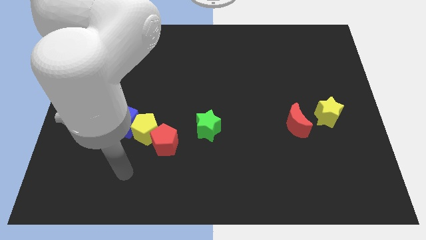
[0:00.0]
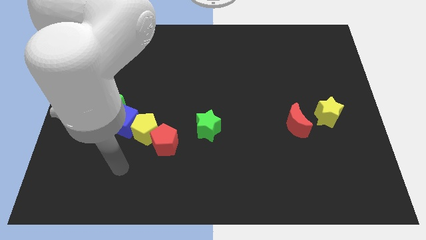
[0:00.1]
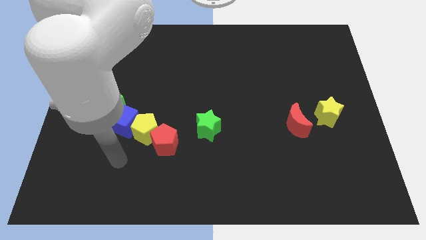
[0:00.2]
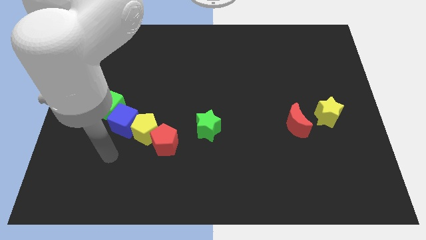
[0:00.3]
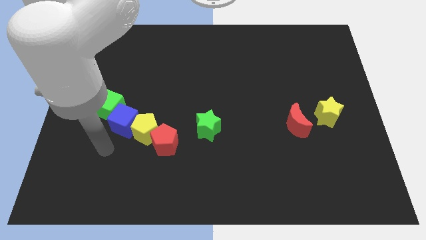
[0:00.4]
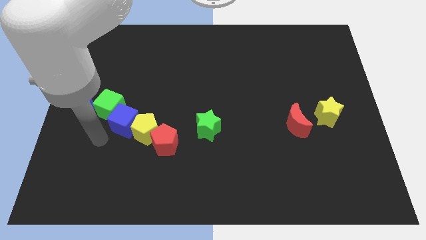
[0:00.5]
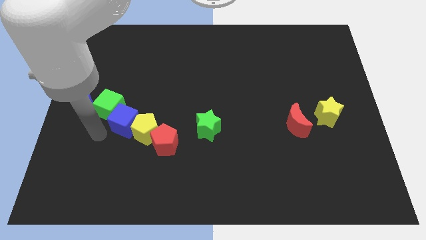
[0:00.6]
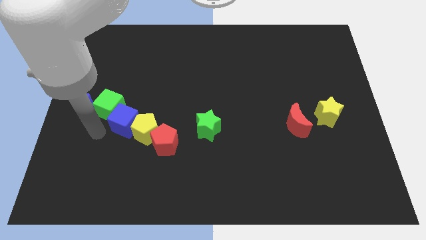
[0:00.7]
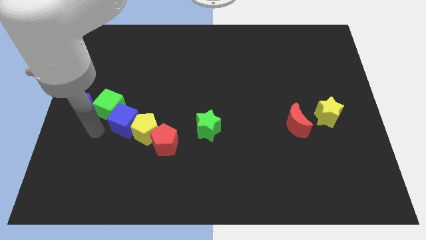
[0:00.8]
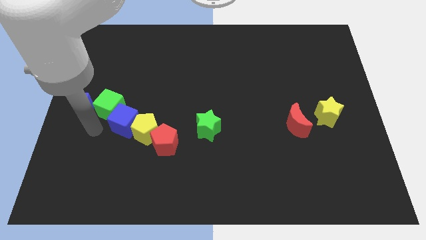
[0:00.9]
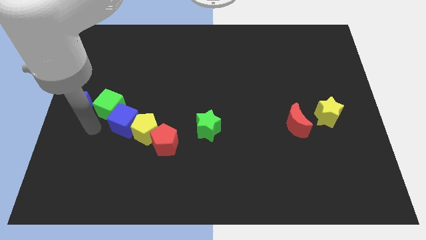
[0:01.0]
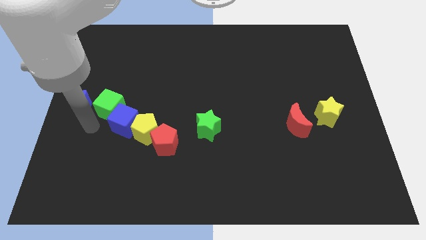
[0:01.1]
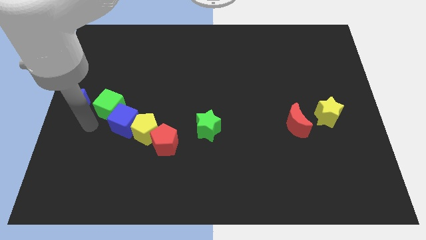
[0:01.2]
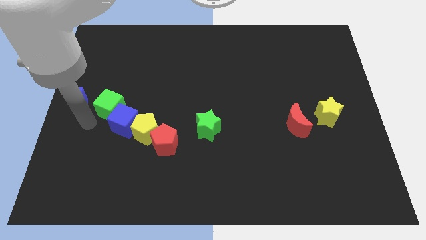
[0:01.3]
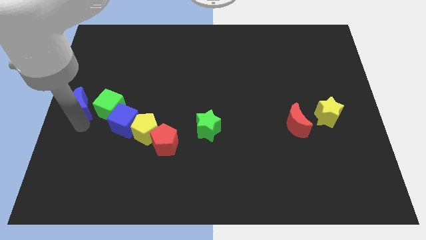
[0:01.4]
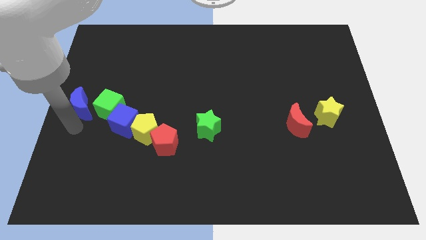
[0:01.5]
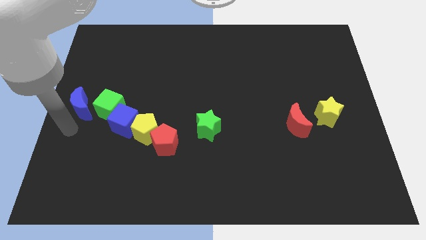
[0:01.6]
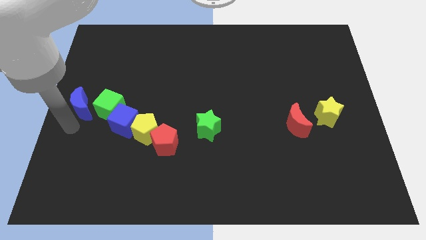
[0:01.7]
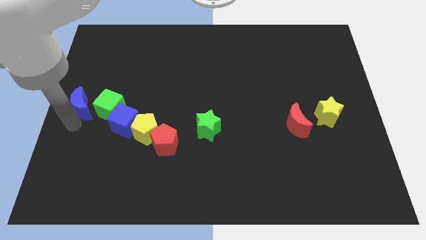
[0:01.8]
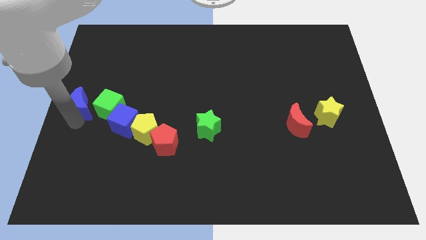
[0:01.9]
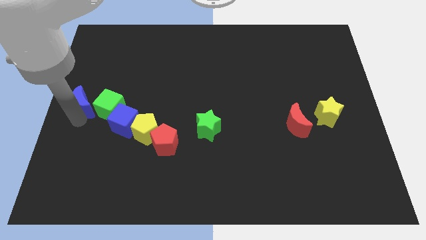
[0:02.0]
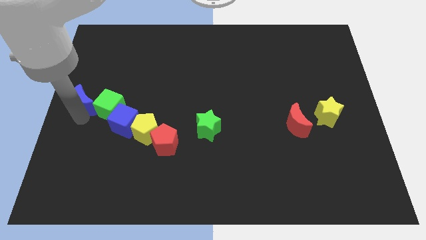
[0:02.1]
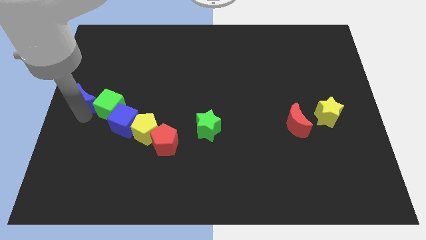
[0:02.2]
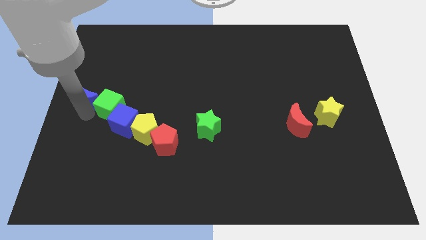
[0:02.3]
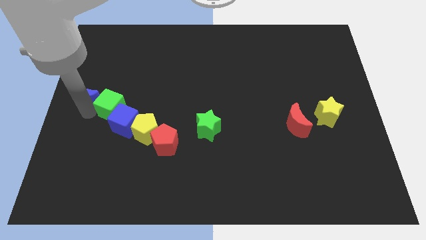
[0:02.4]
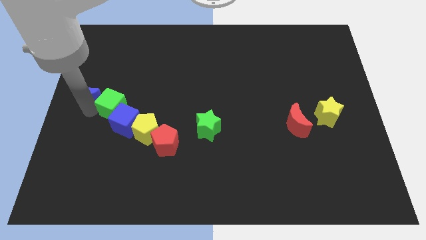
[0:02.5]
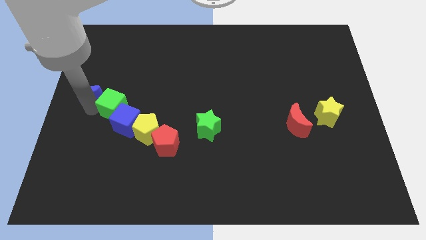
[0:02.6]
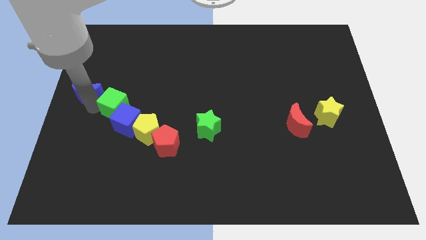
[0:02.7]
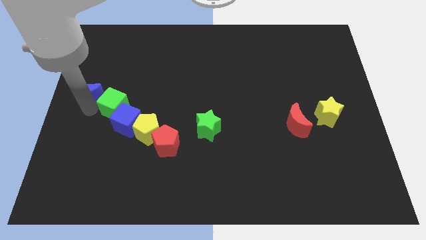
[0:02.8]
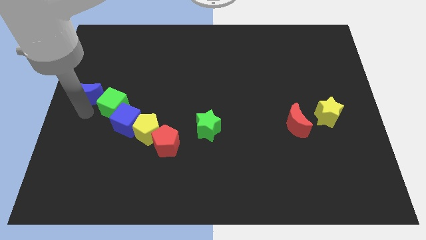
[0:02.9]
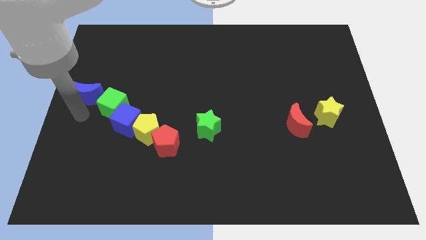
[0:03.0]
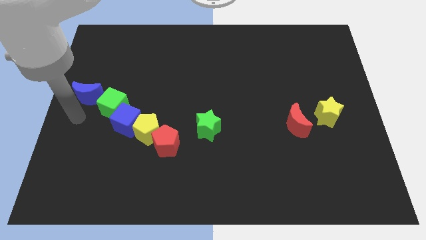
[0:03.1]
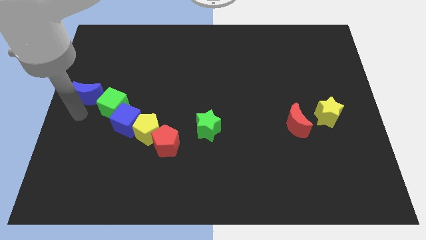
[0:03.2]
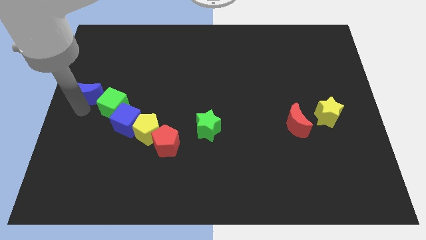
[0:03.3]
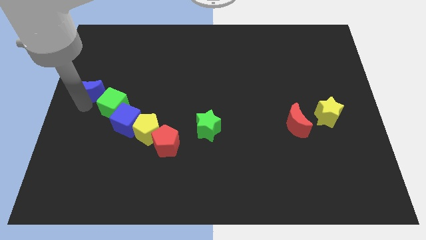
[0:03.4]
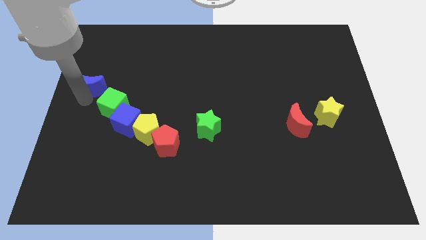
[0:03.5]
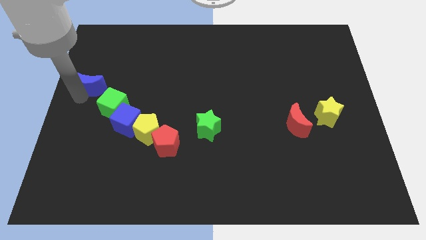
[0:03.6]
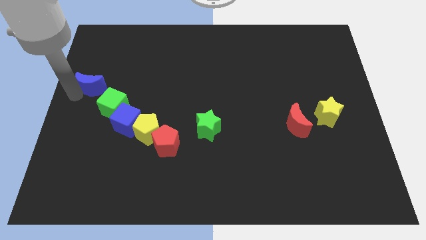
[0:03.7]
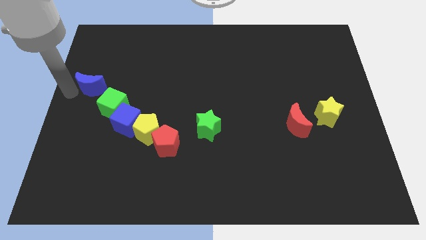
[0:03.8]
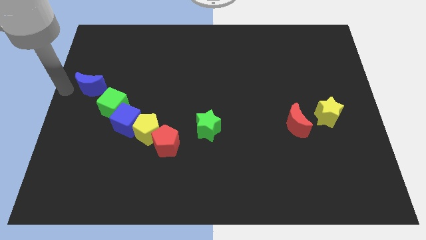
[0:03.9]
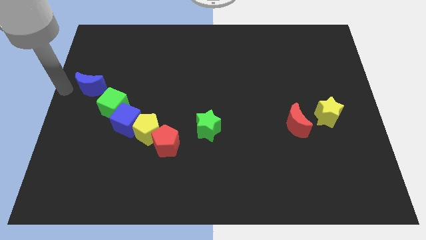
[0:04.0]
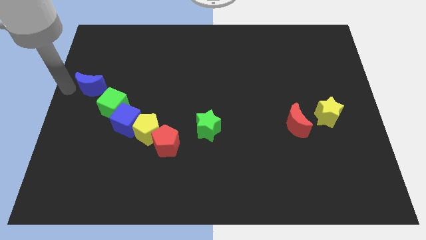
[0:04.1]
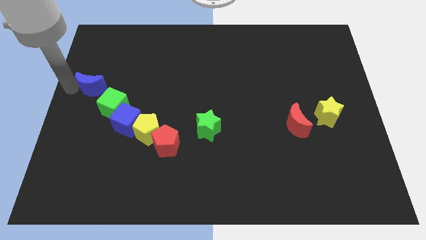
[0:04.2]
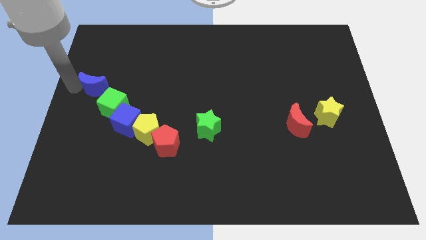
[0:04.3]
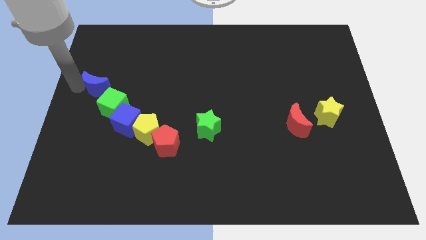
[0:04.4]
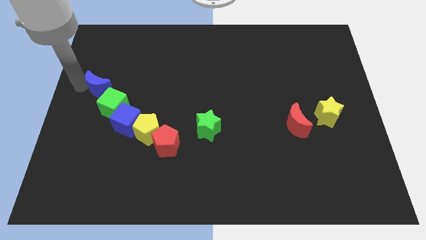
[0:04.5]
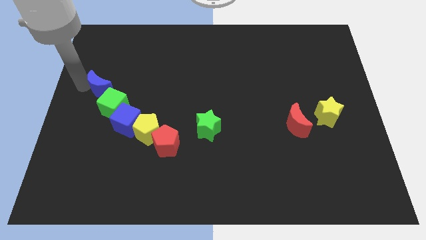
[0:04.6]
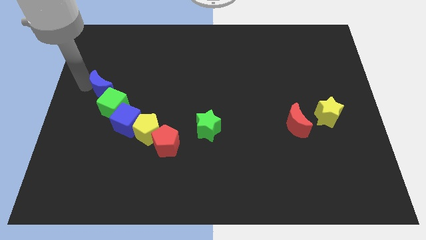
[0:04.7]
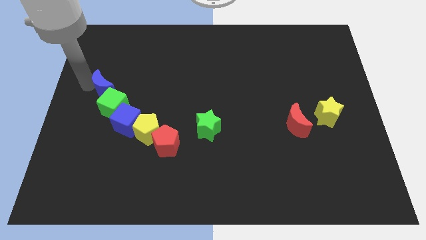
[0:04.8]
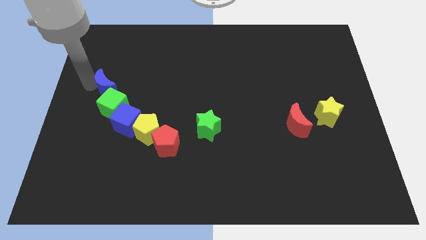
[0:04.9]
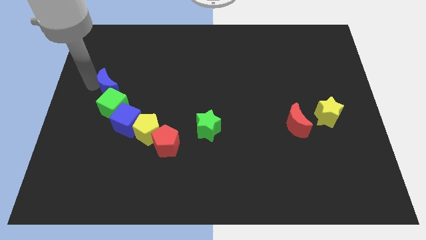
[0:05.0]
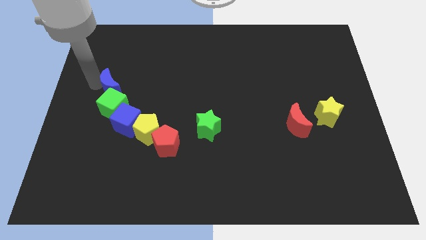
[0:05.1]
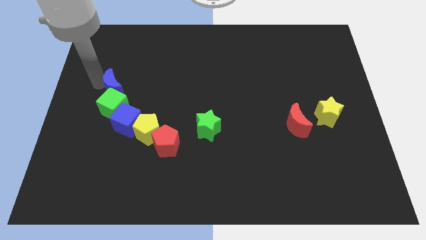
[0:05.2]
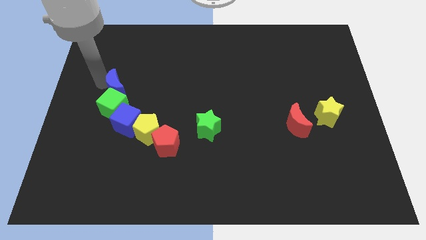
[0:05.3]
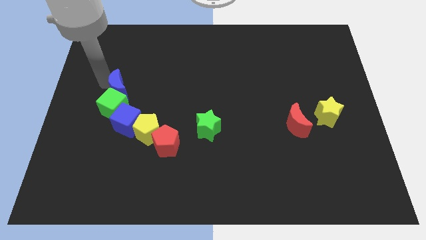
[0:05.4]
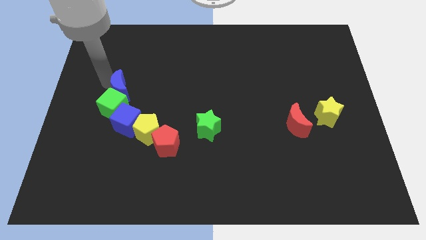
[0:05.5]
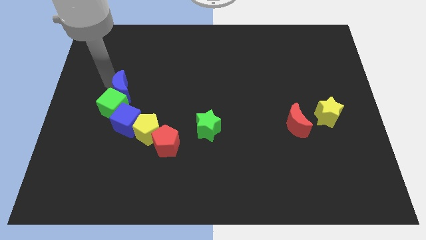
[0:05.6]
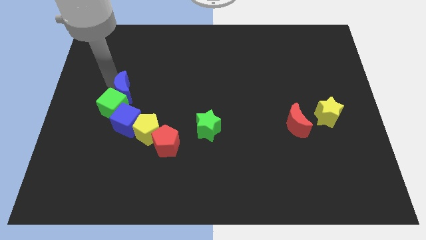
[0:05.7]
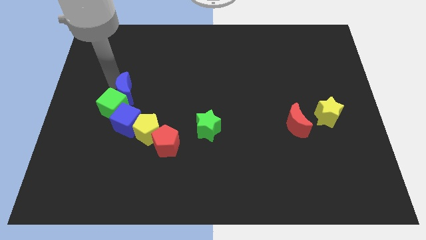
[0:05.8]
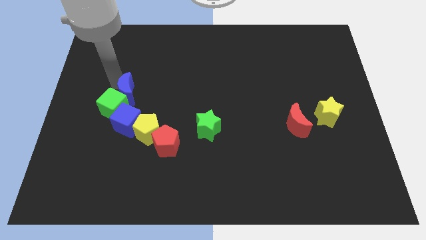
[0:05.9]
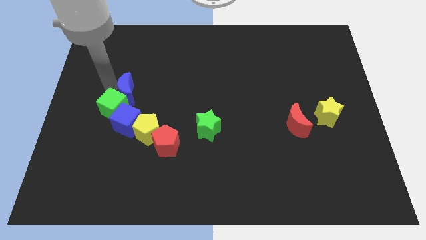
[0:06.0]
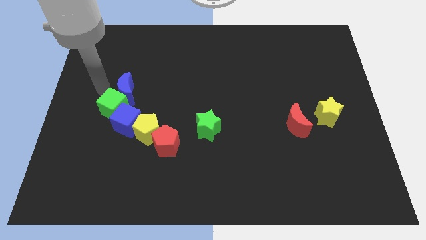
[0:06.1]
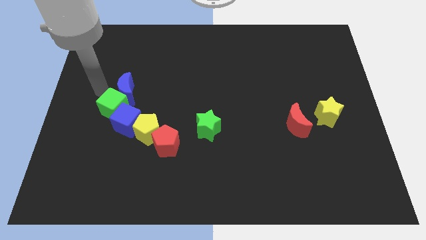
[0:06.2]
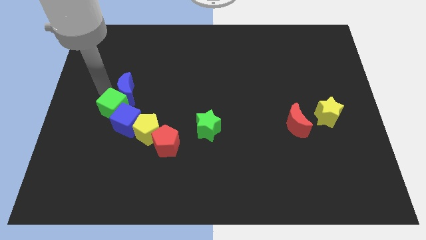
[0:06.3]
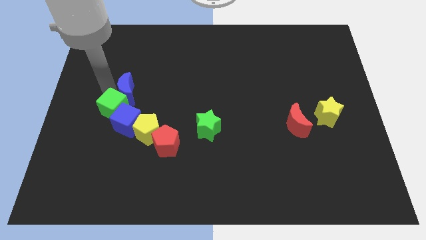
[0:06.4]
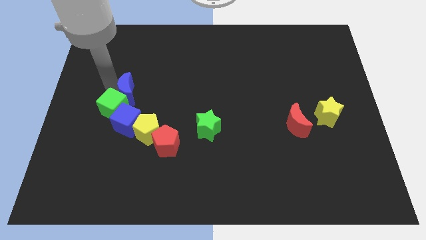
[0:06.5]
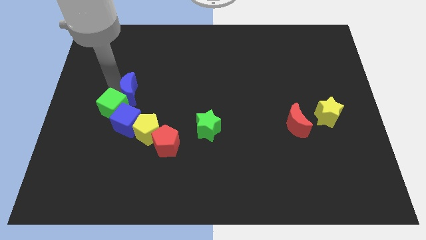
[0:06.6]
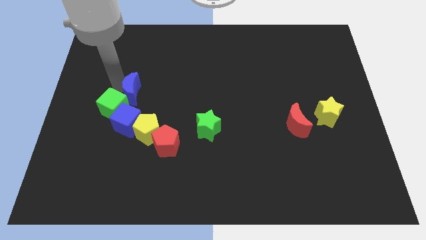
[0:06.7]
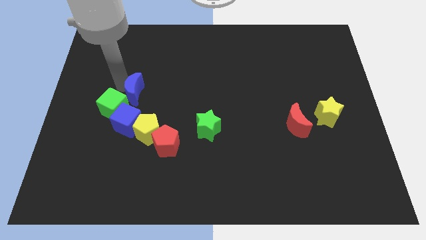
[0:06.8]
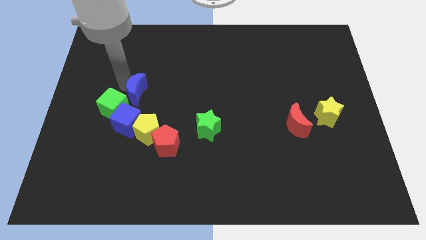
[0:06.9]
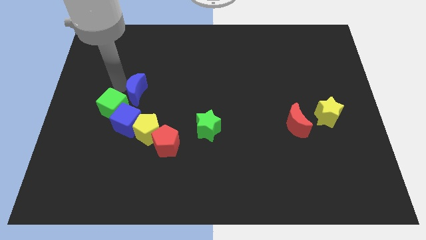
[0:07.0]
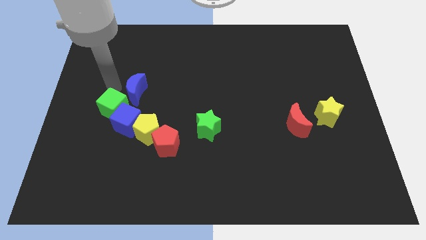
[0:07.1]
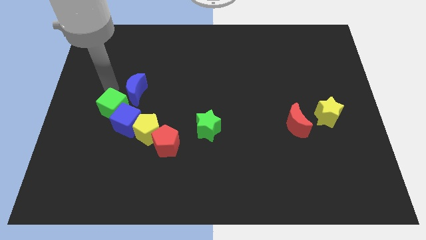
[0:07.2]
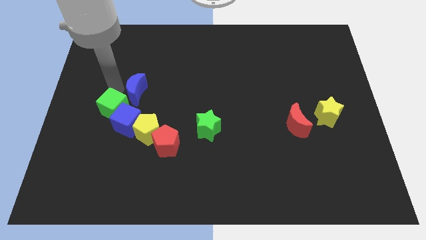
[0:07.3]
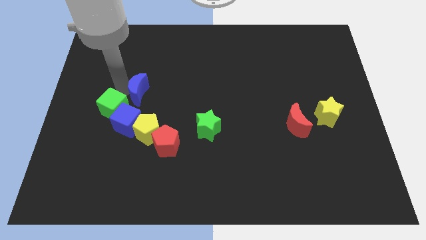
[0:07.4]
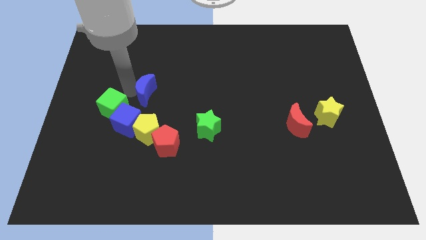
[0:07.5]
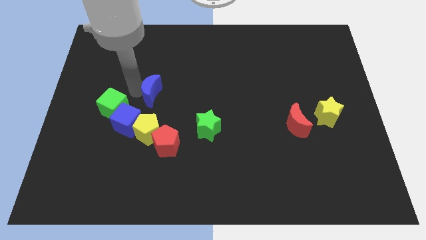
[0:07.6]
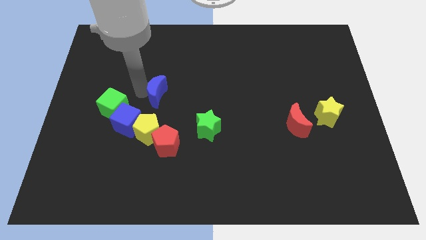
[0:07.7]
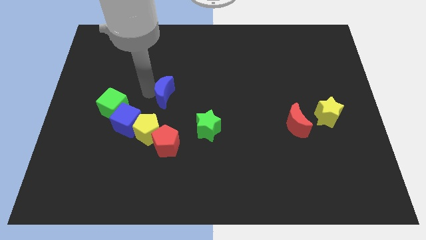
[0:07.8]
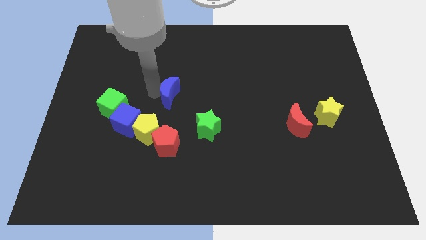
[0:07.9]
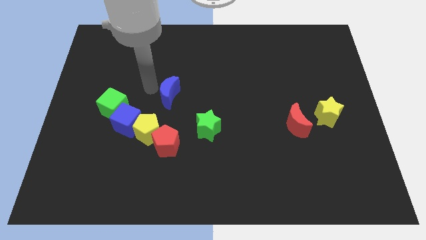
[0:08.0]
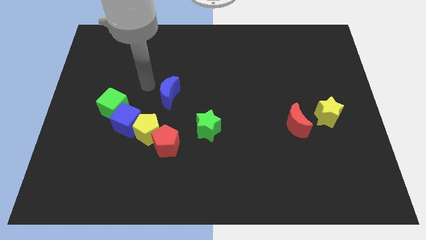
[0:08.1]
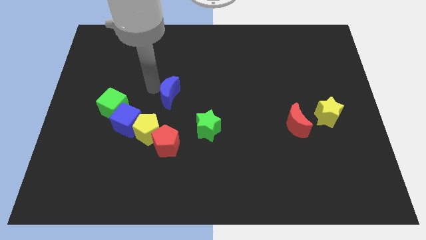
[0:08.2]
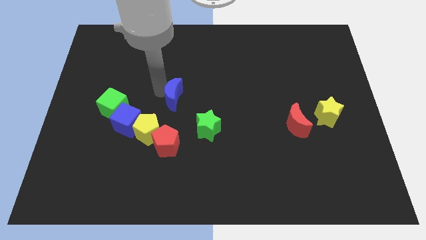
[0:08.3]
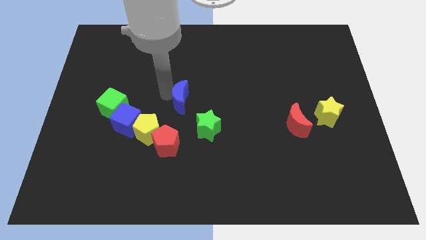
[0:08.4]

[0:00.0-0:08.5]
slide the blue moon right
